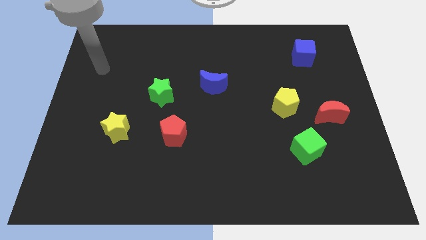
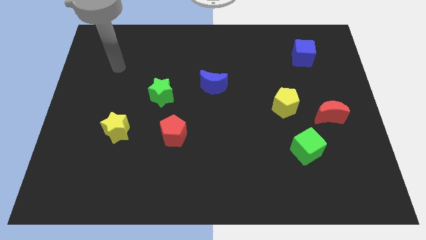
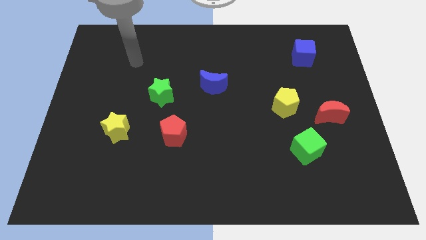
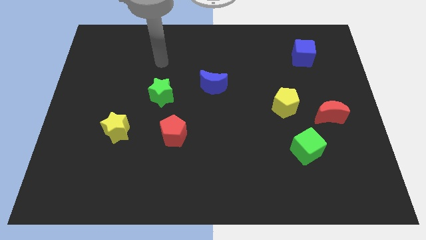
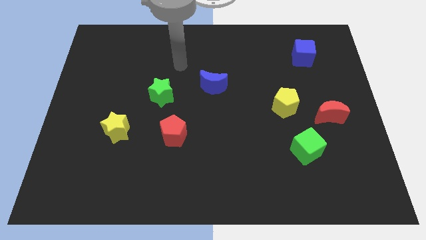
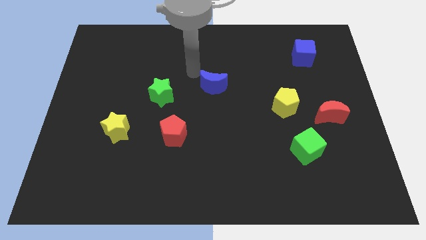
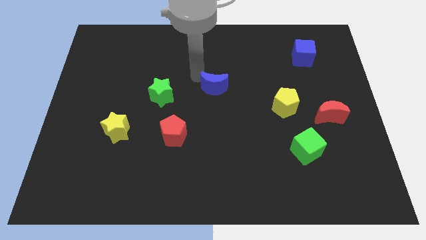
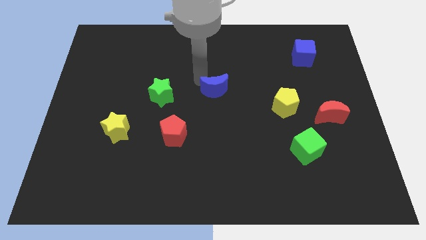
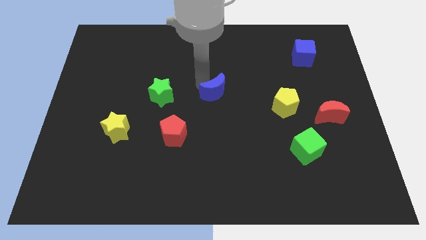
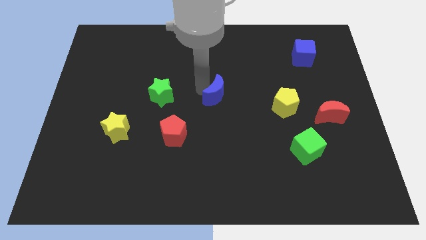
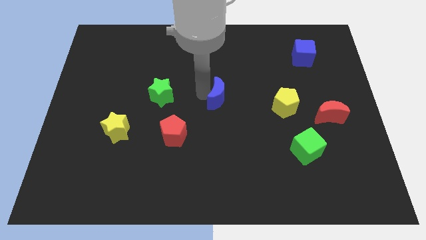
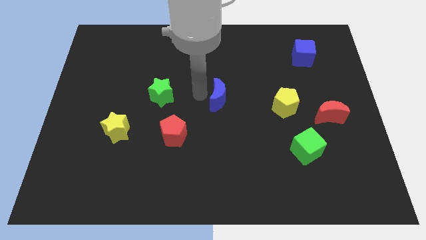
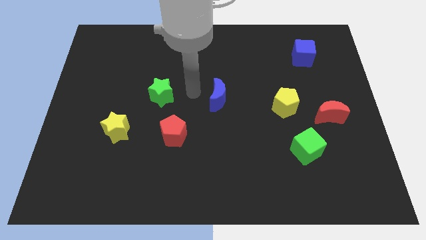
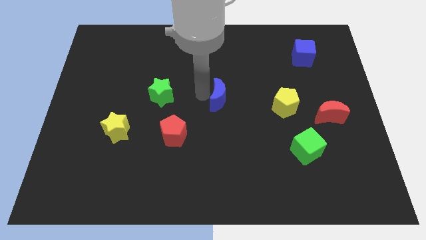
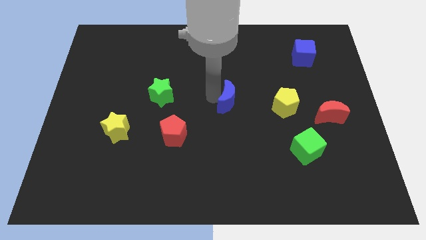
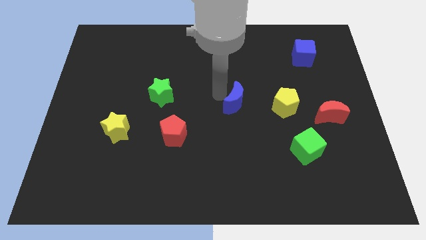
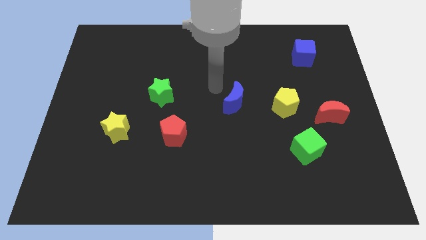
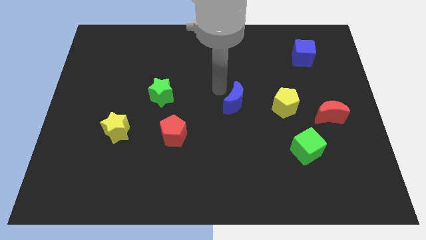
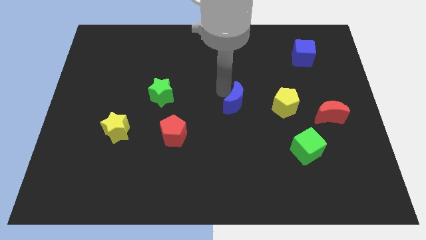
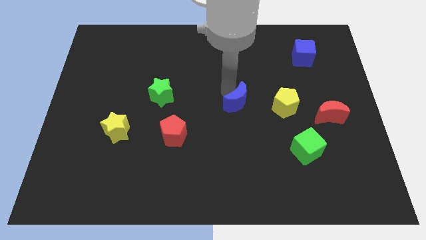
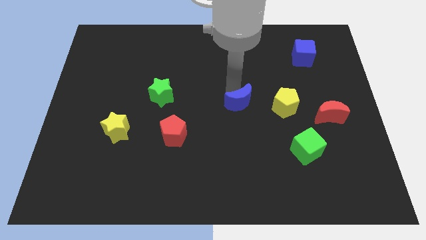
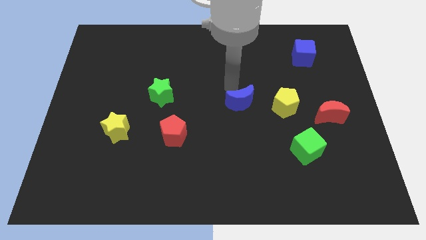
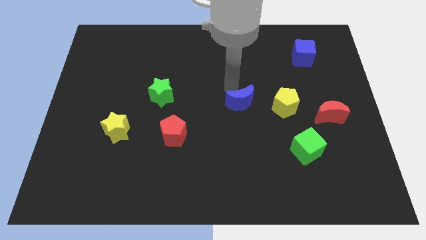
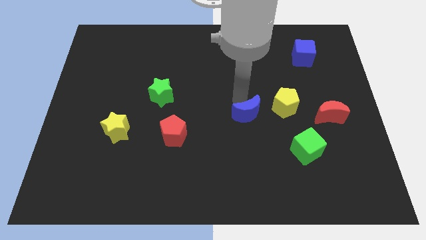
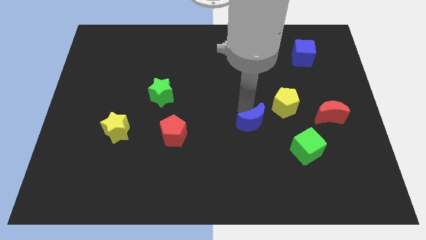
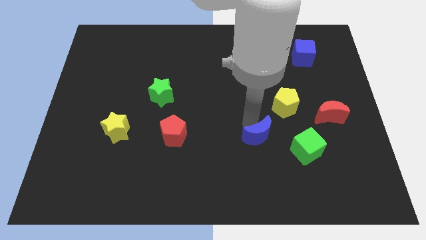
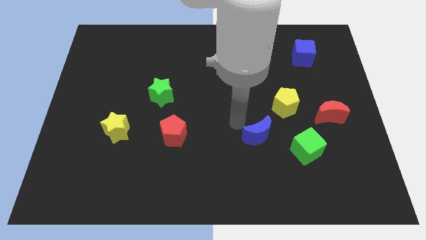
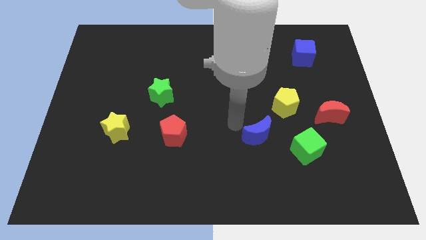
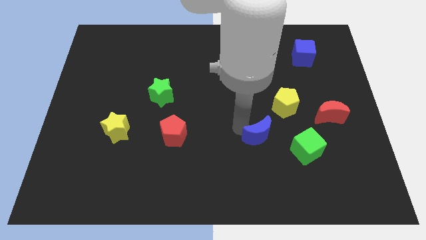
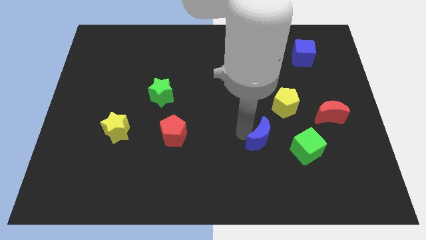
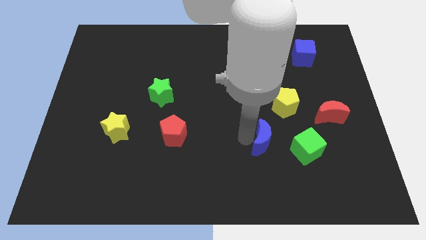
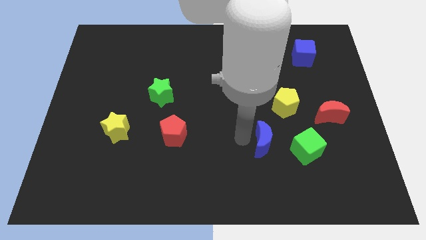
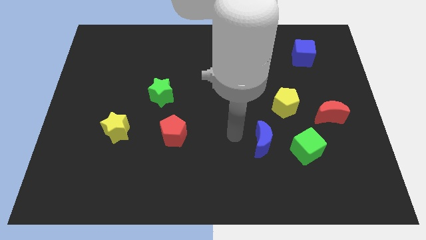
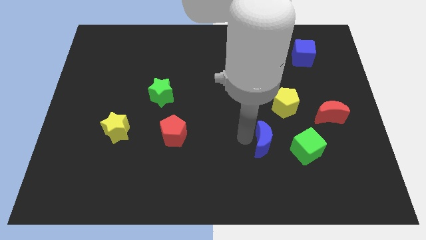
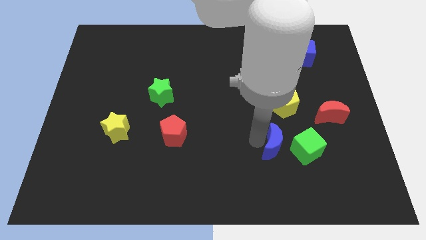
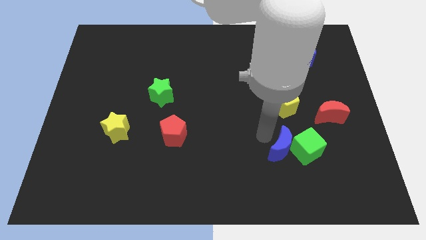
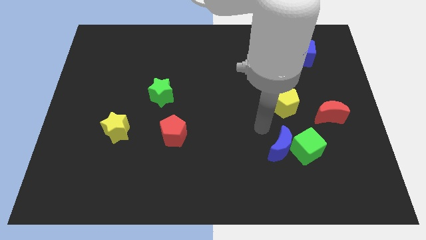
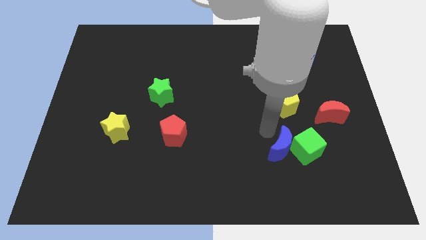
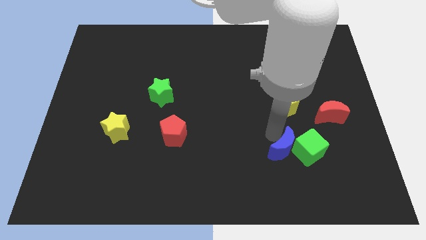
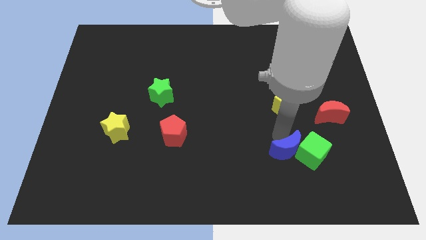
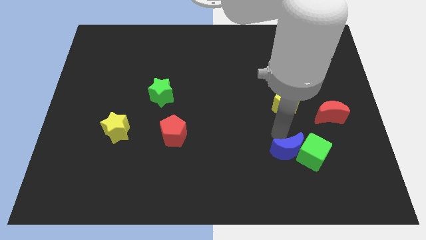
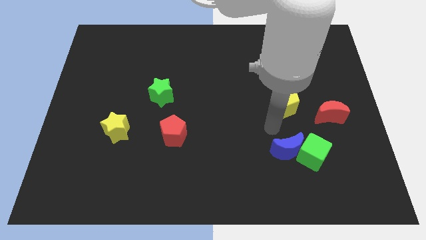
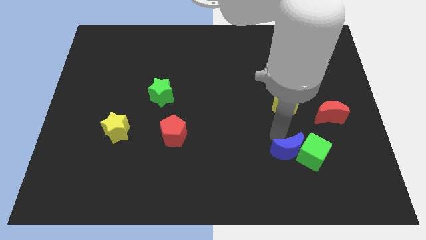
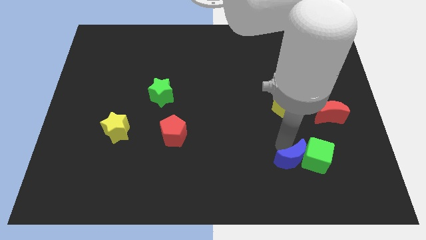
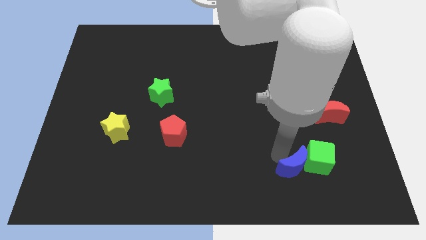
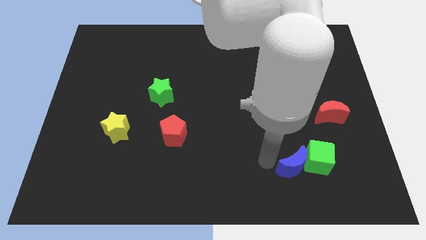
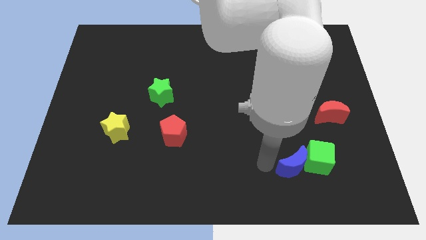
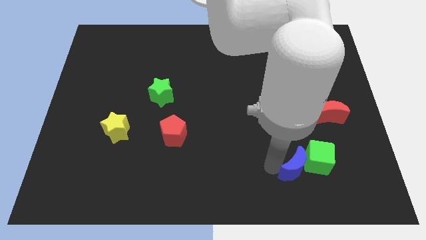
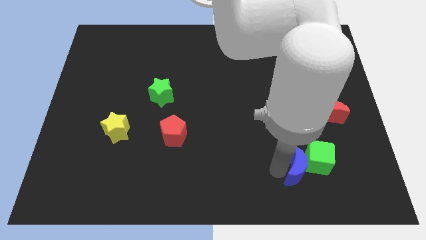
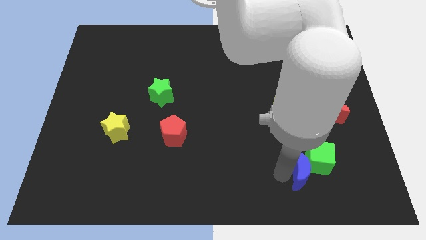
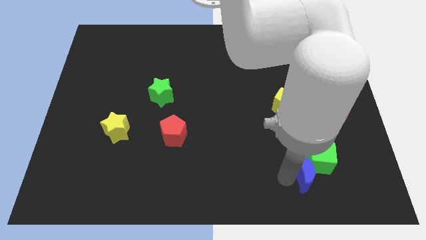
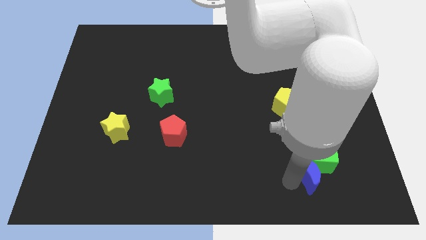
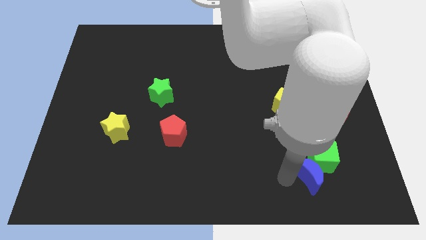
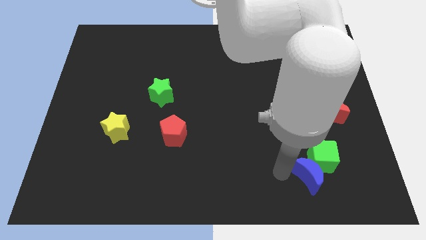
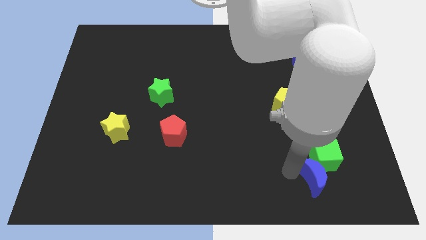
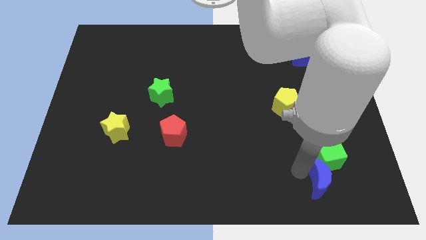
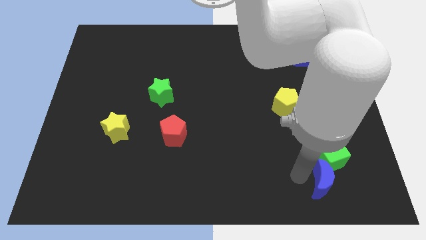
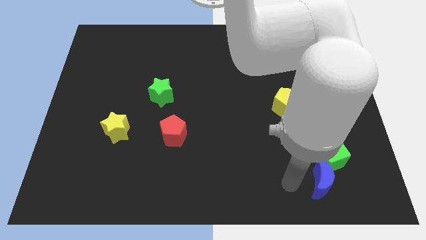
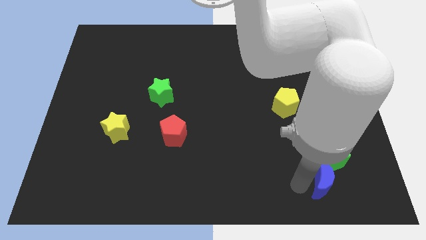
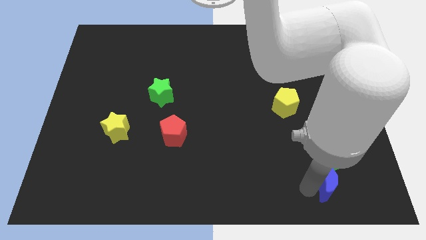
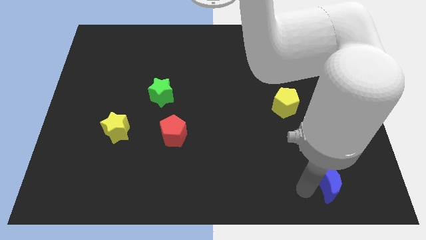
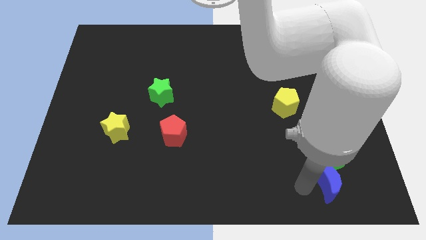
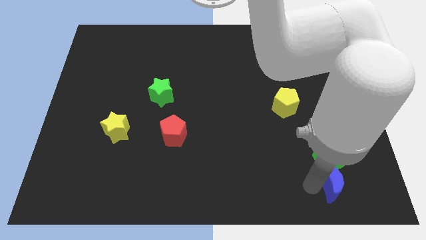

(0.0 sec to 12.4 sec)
push the blue moon to the bottom right of the green cube

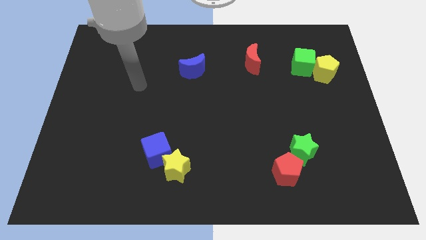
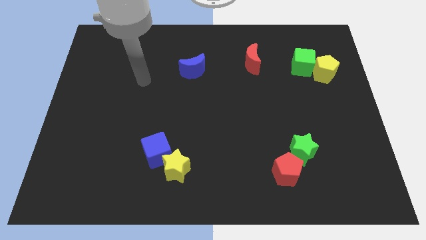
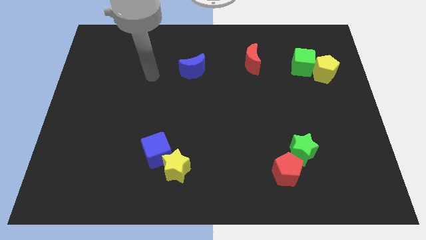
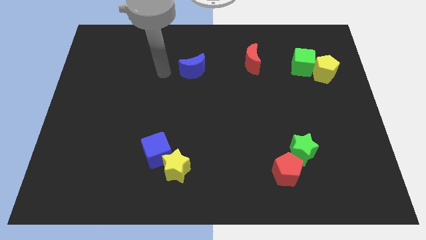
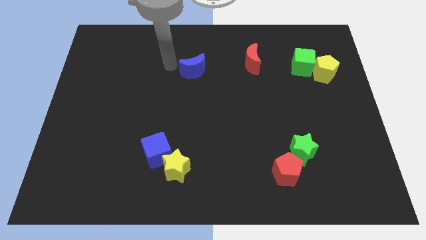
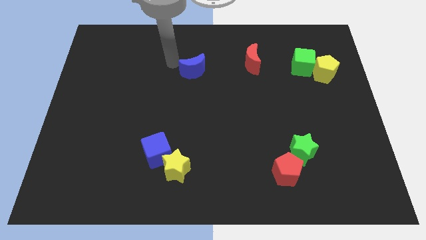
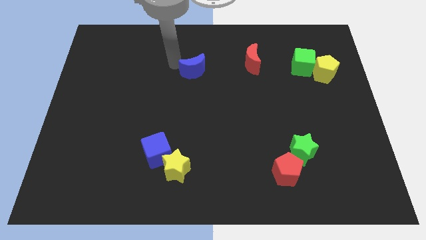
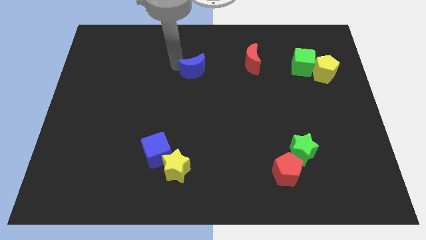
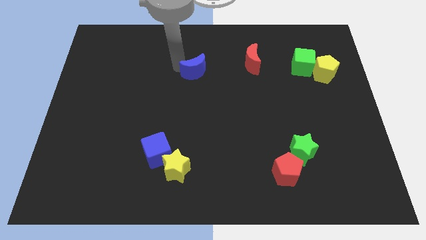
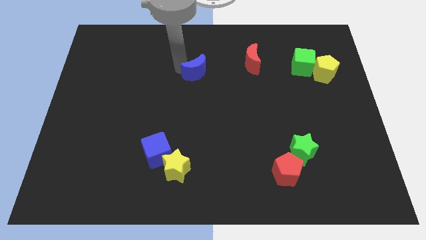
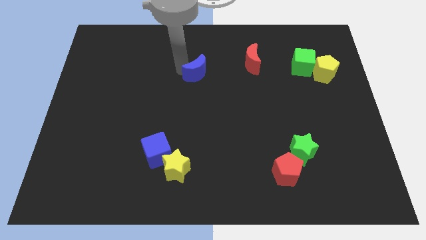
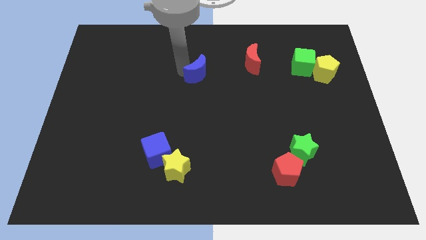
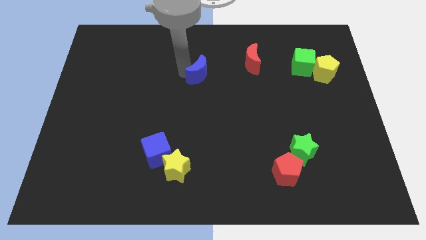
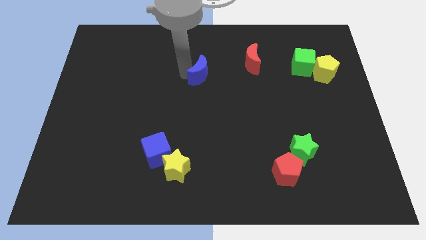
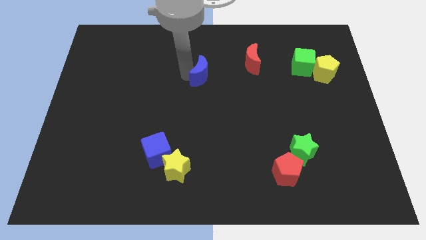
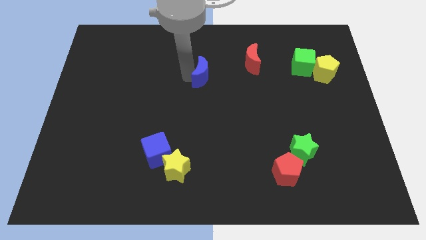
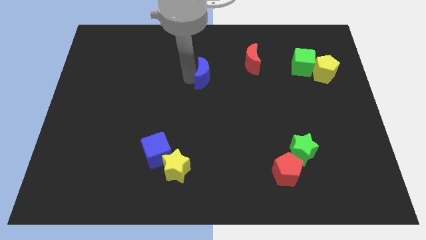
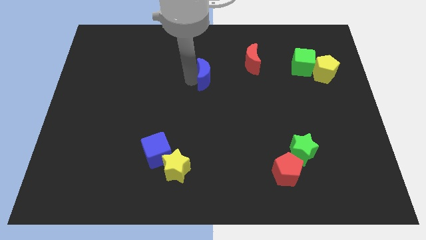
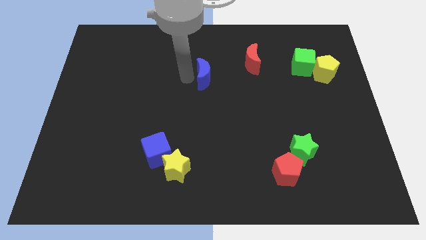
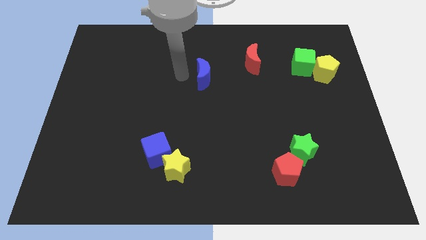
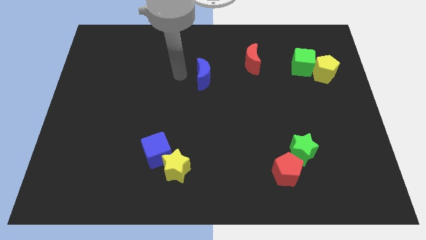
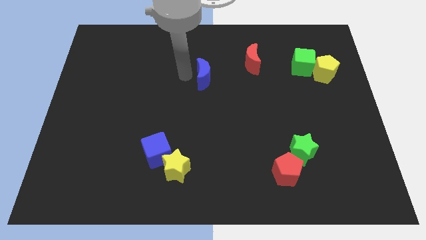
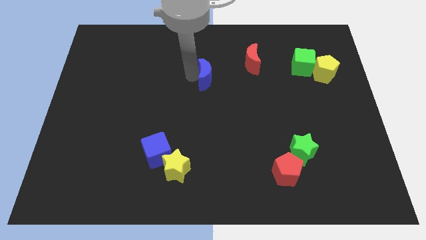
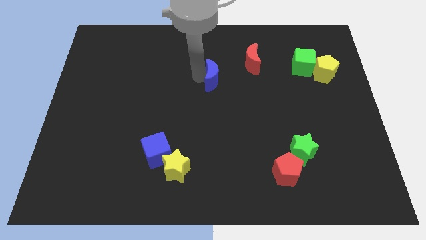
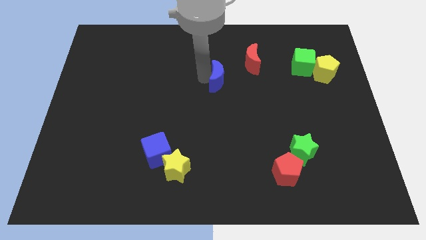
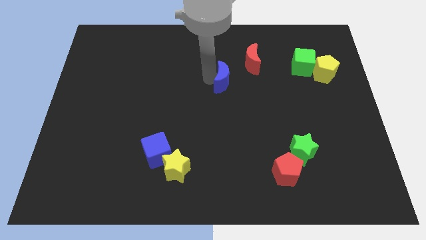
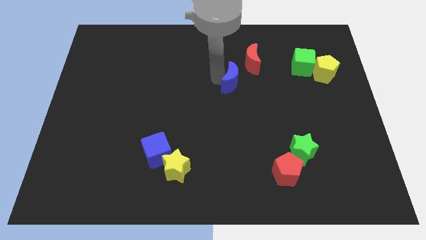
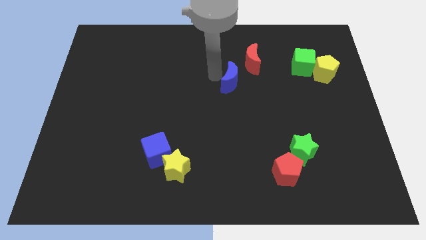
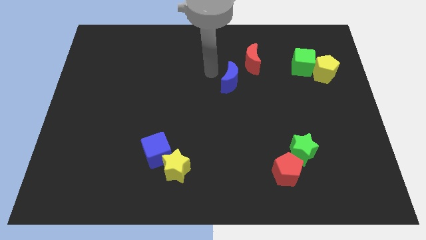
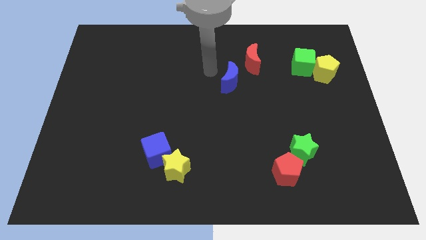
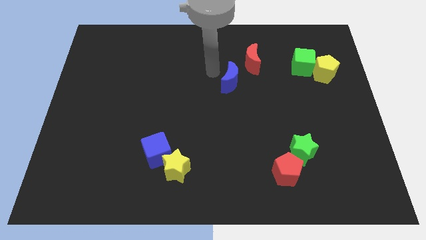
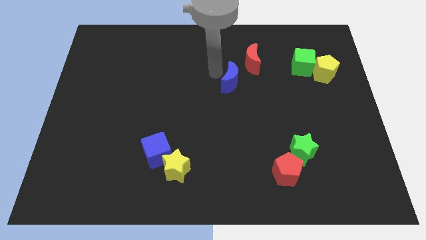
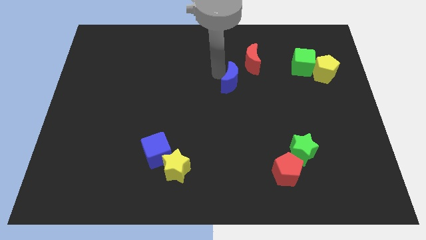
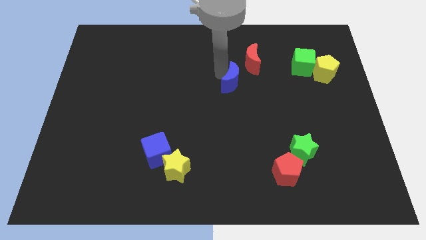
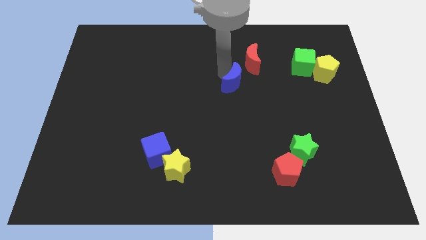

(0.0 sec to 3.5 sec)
put the blue moon to the bottom side of the red moon
